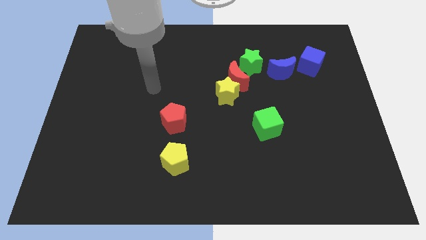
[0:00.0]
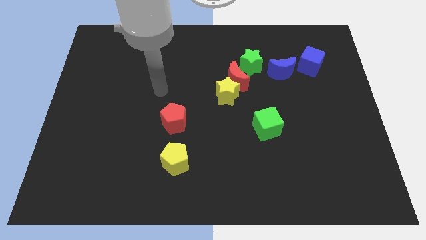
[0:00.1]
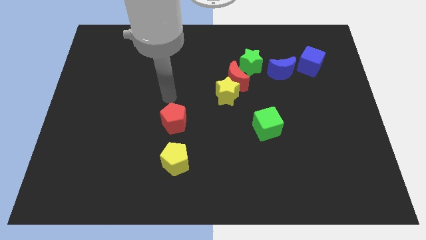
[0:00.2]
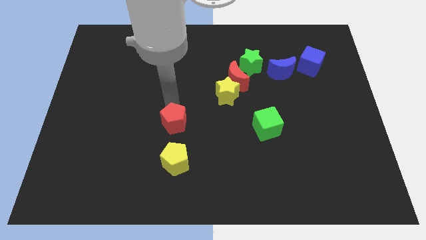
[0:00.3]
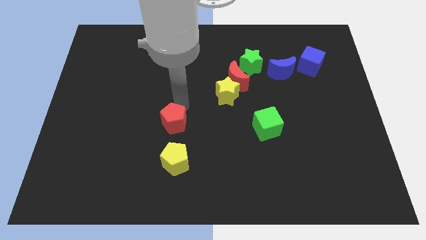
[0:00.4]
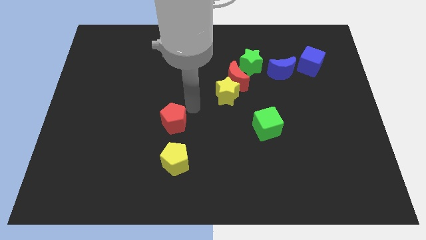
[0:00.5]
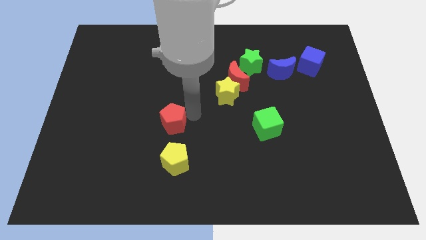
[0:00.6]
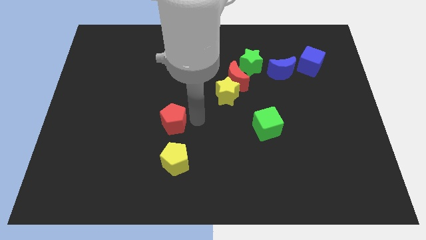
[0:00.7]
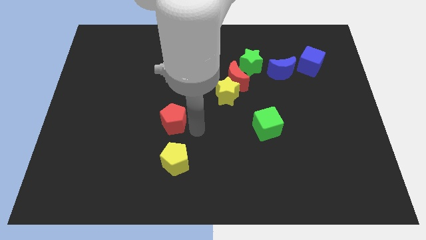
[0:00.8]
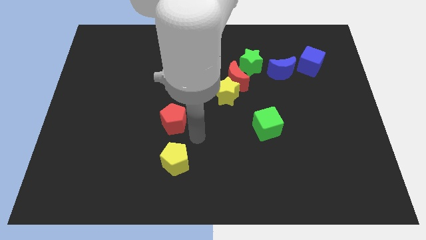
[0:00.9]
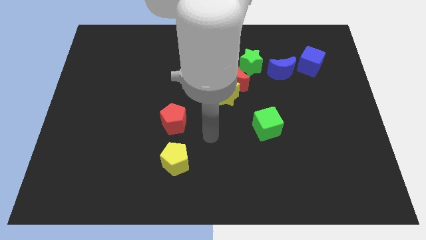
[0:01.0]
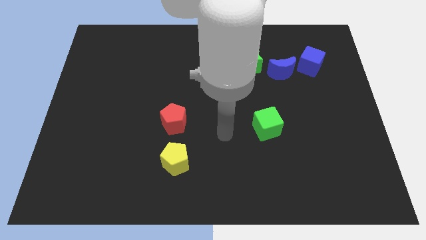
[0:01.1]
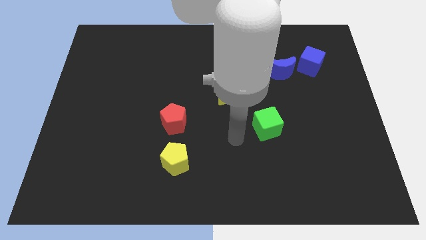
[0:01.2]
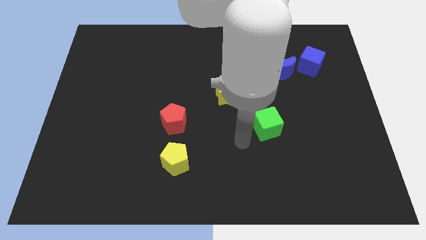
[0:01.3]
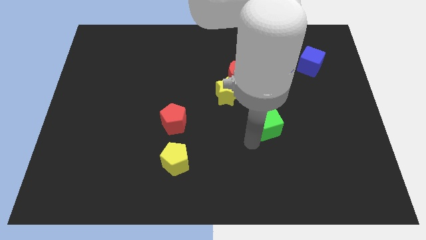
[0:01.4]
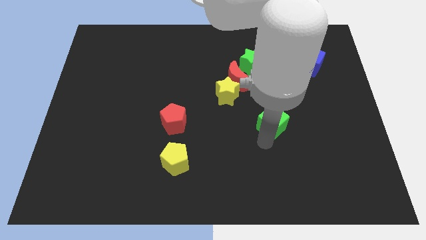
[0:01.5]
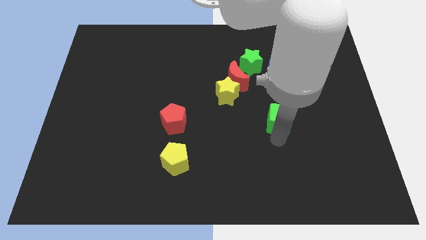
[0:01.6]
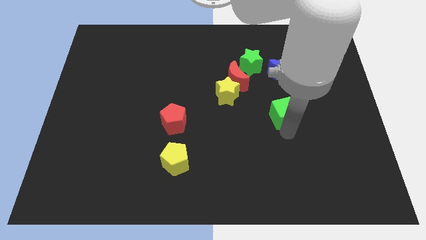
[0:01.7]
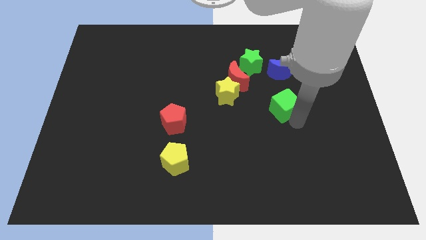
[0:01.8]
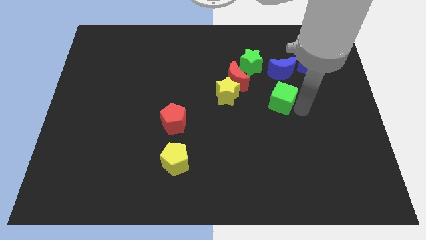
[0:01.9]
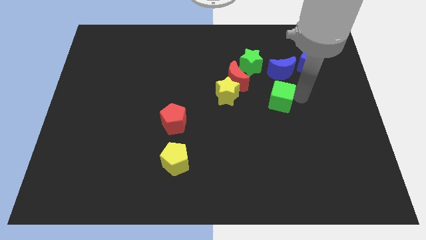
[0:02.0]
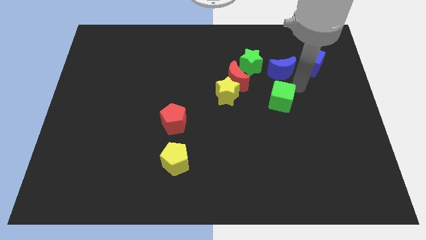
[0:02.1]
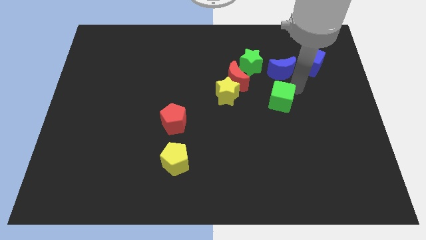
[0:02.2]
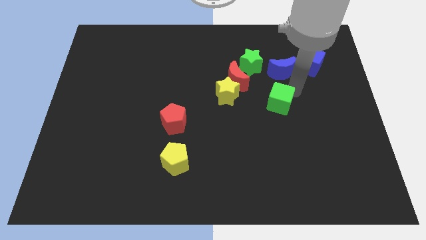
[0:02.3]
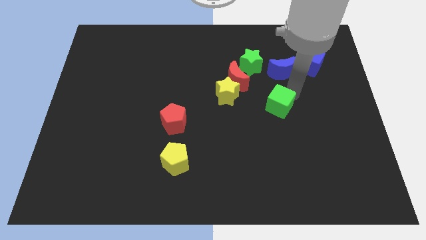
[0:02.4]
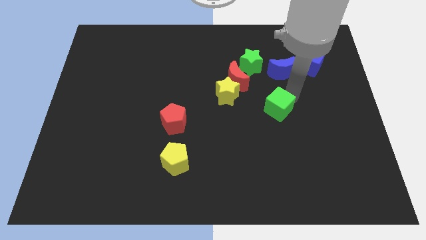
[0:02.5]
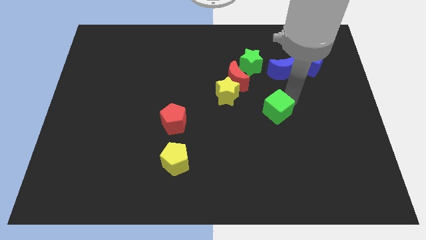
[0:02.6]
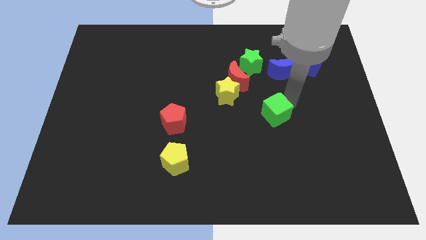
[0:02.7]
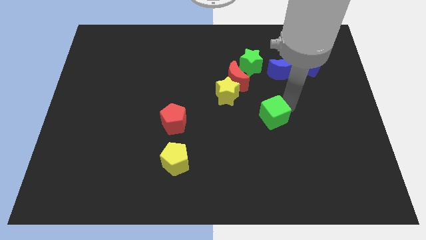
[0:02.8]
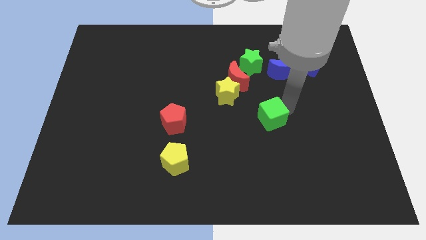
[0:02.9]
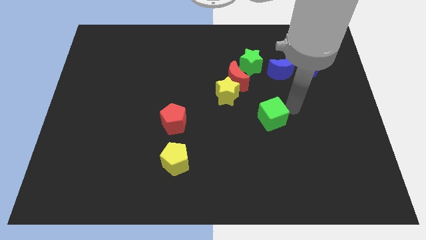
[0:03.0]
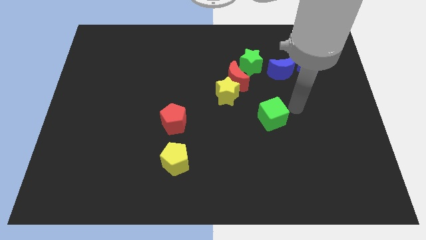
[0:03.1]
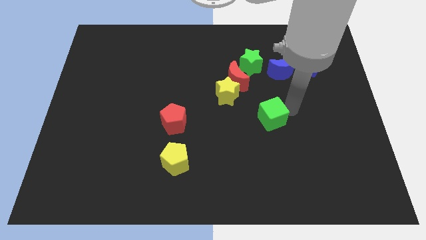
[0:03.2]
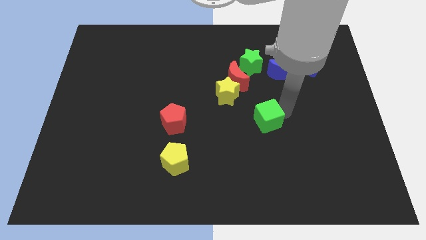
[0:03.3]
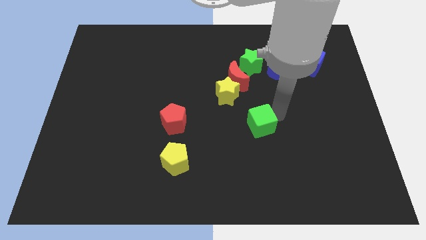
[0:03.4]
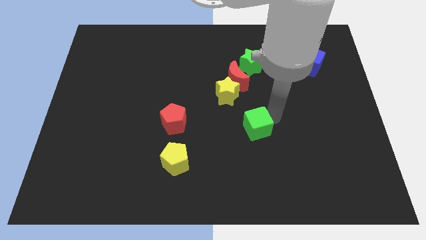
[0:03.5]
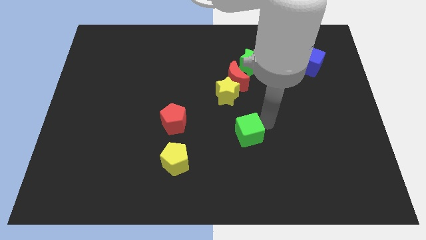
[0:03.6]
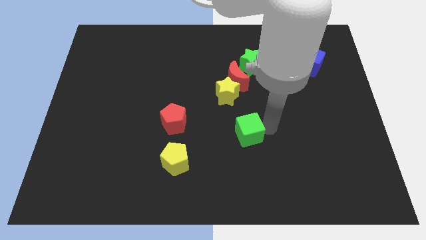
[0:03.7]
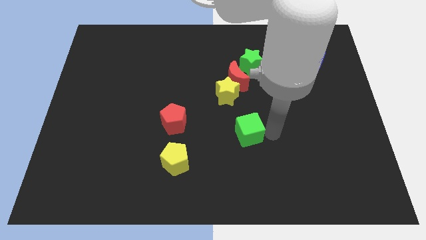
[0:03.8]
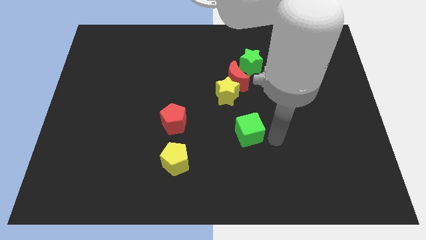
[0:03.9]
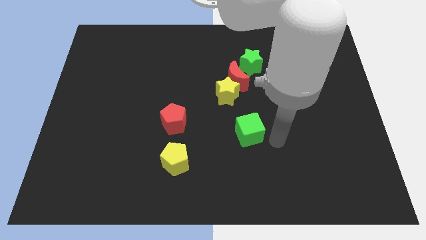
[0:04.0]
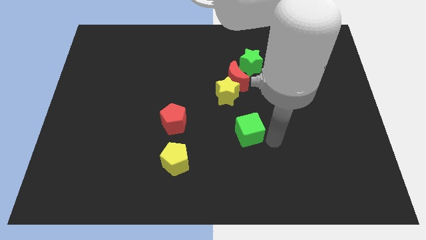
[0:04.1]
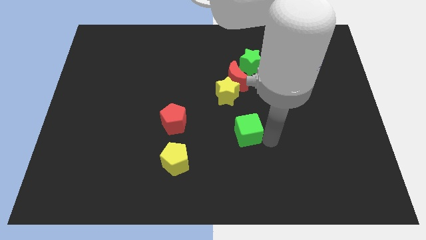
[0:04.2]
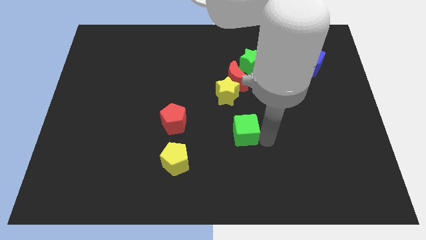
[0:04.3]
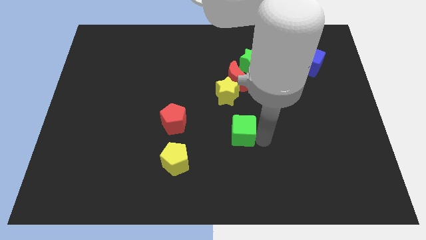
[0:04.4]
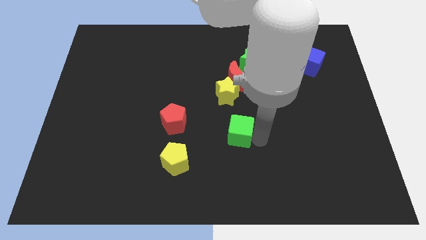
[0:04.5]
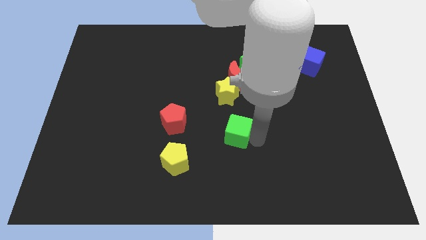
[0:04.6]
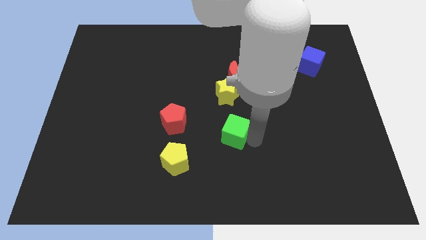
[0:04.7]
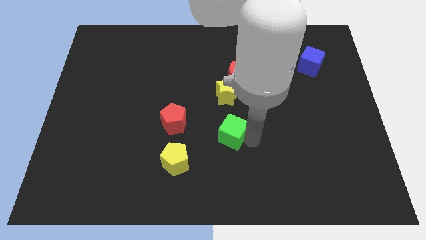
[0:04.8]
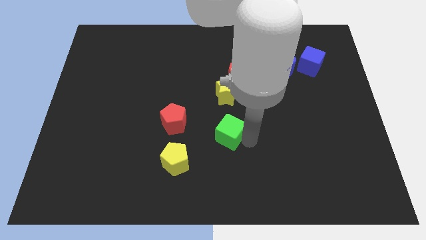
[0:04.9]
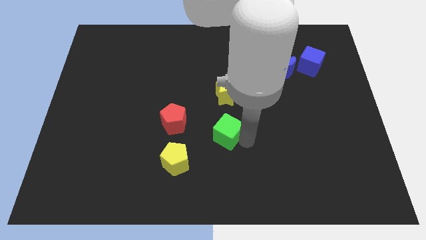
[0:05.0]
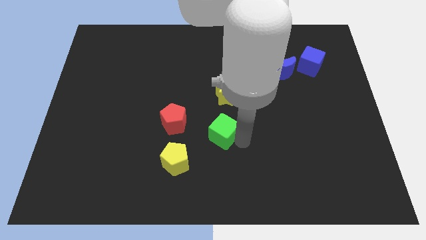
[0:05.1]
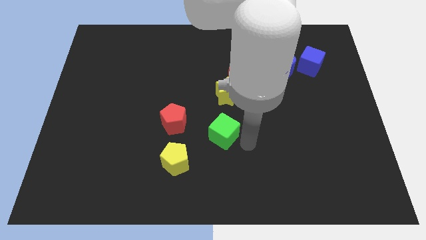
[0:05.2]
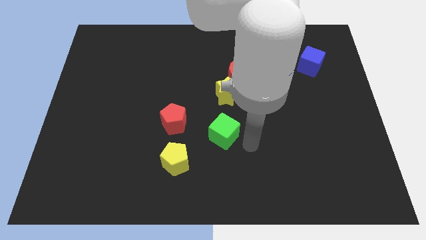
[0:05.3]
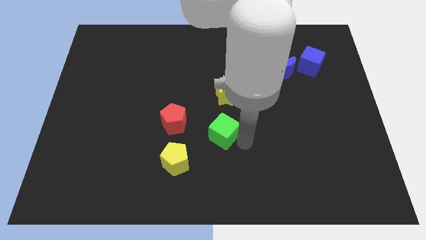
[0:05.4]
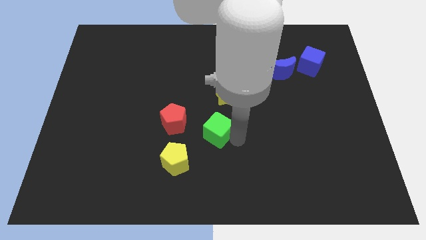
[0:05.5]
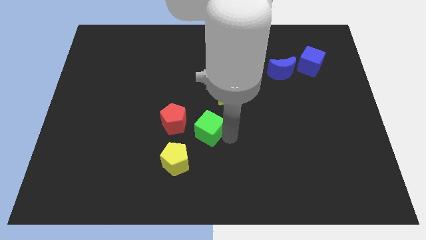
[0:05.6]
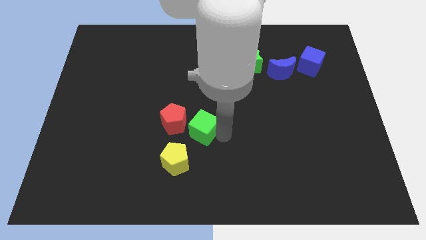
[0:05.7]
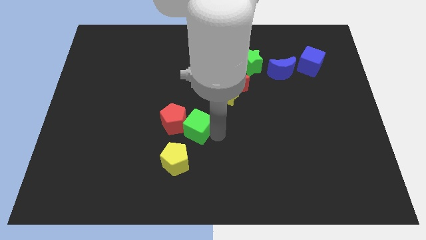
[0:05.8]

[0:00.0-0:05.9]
push the green cube towards the red pentagon

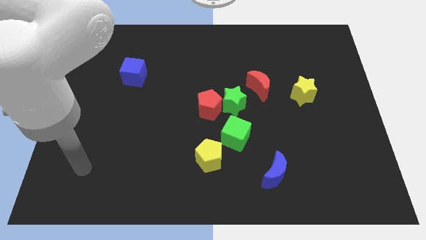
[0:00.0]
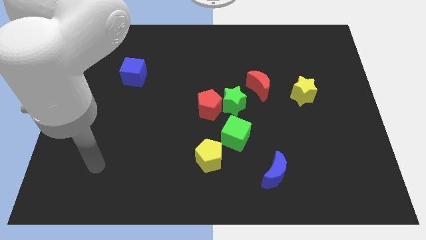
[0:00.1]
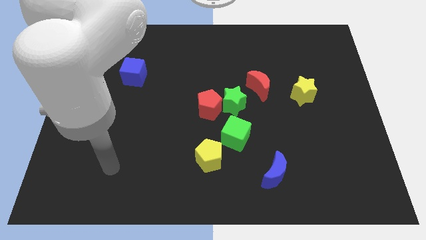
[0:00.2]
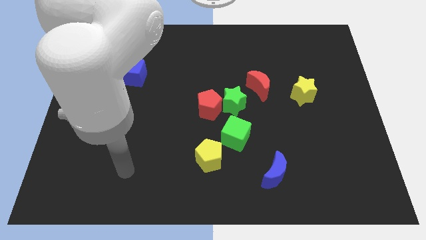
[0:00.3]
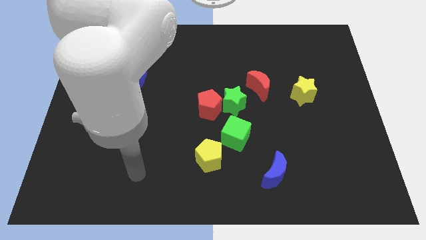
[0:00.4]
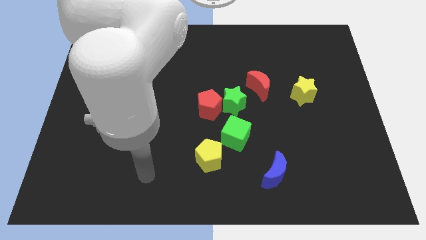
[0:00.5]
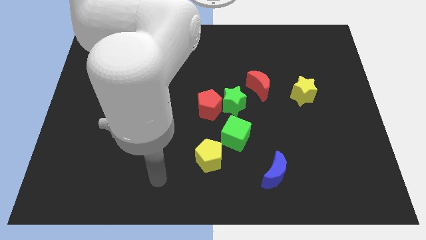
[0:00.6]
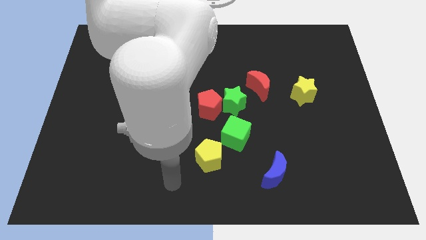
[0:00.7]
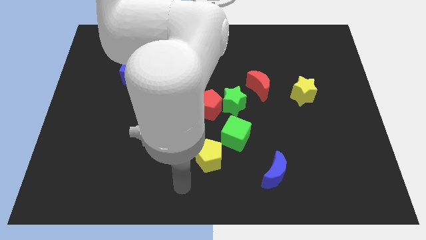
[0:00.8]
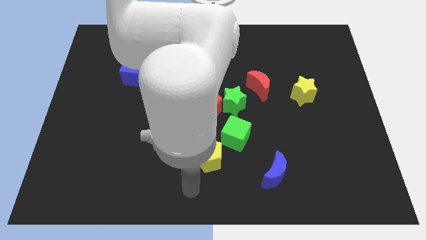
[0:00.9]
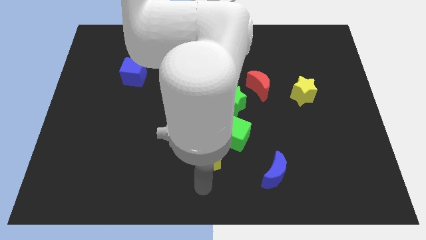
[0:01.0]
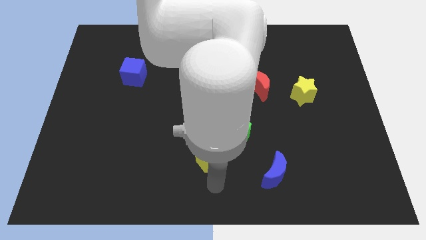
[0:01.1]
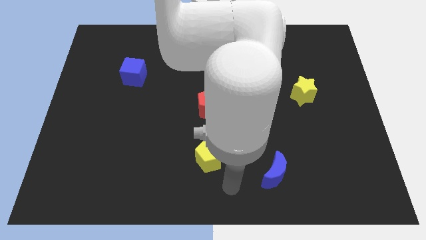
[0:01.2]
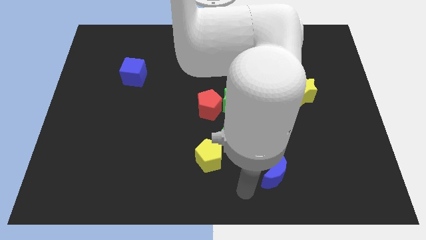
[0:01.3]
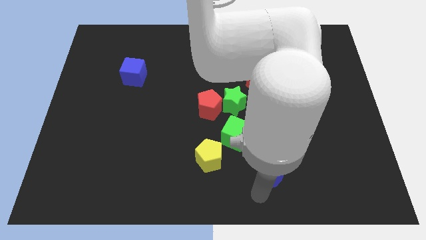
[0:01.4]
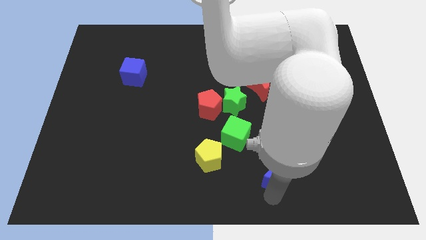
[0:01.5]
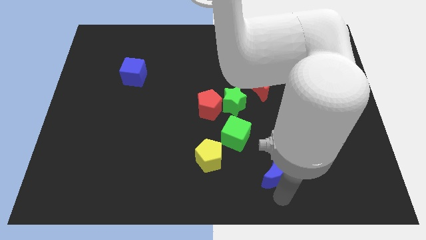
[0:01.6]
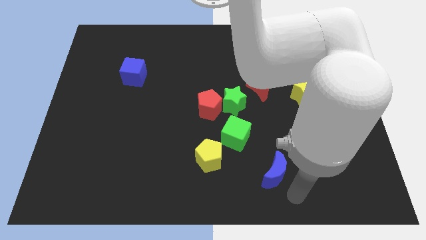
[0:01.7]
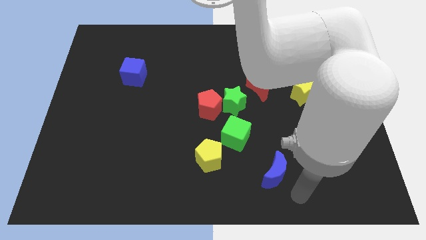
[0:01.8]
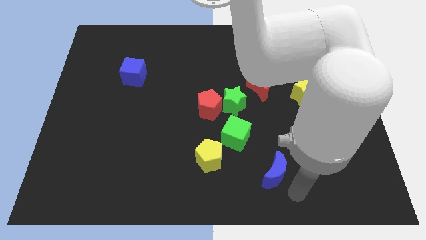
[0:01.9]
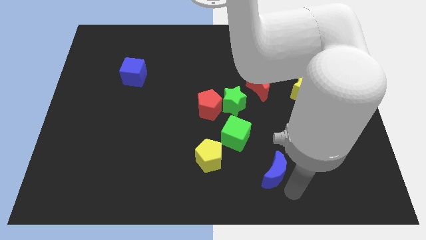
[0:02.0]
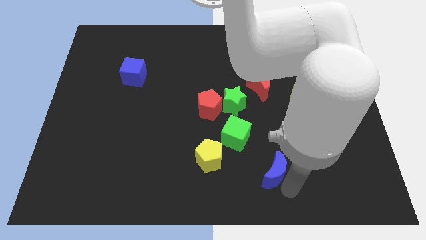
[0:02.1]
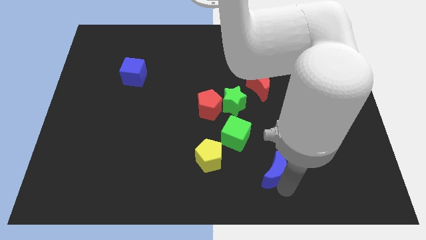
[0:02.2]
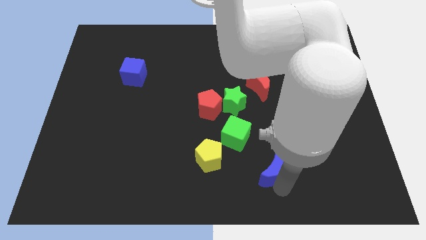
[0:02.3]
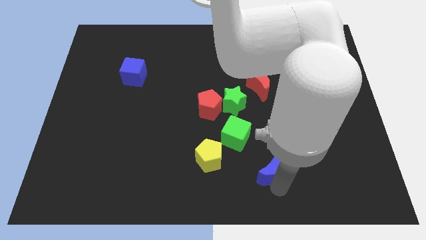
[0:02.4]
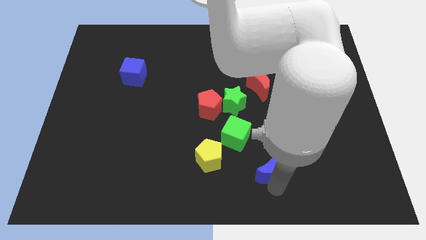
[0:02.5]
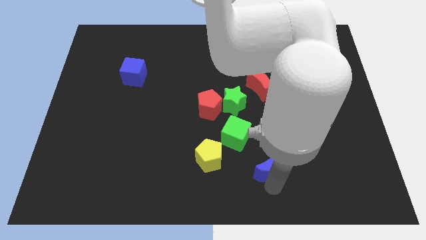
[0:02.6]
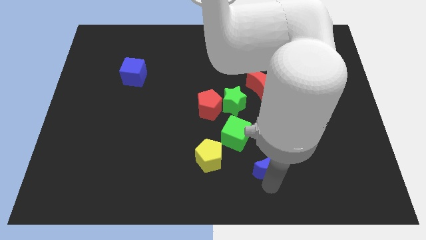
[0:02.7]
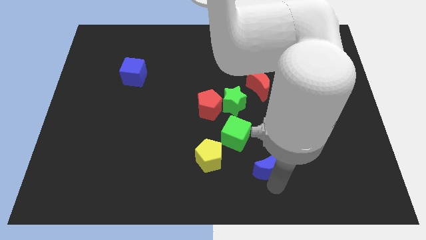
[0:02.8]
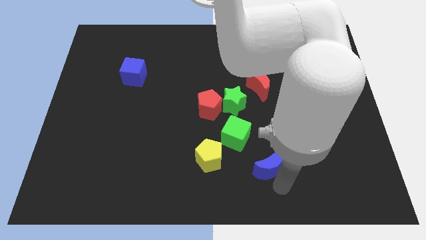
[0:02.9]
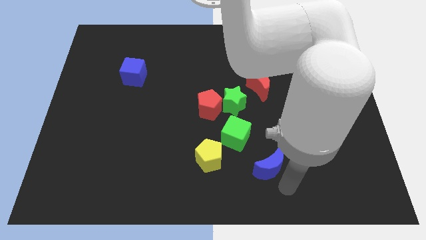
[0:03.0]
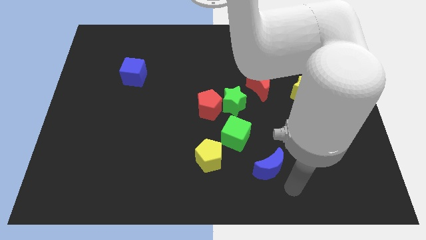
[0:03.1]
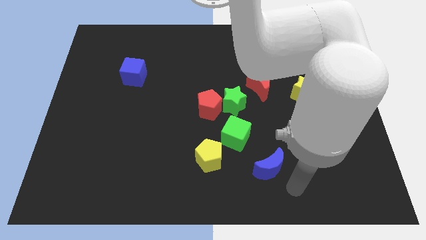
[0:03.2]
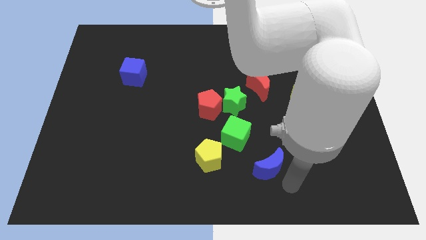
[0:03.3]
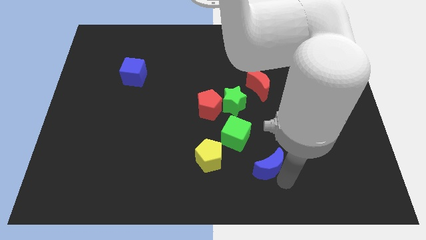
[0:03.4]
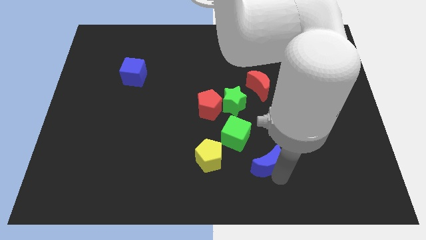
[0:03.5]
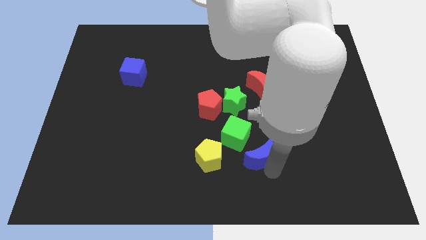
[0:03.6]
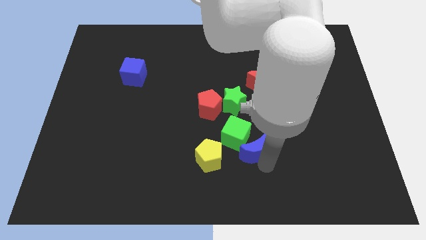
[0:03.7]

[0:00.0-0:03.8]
move the blue moon close to the green cube
